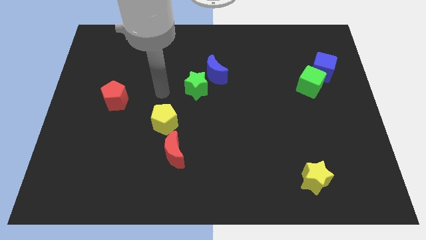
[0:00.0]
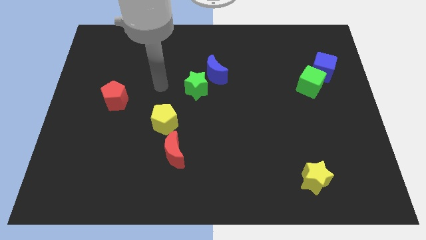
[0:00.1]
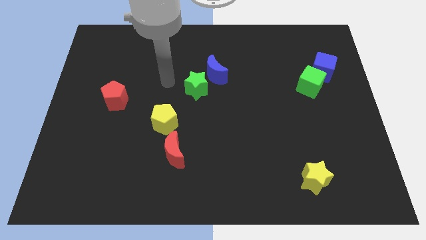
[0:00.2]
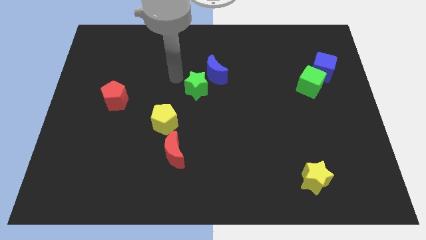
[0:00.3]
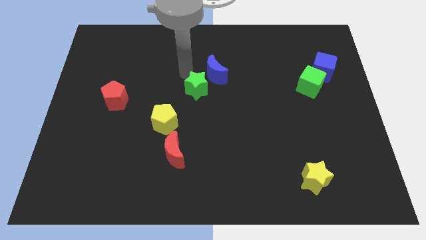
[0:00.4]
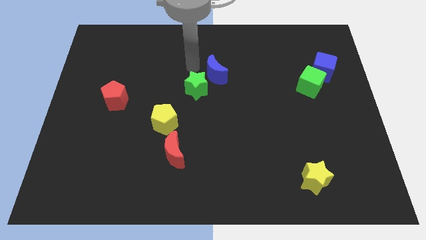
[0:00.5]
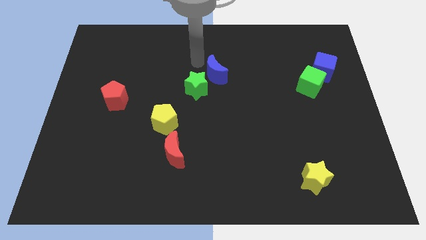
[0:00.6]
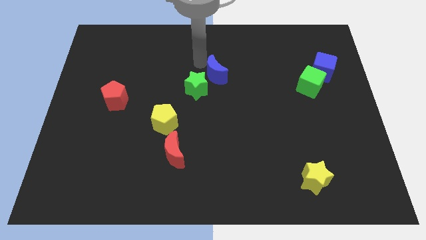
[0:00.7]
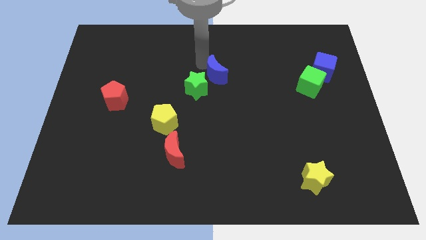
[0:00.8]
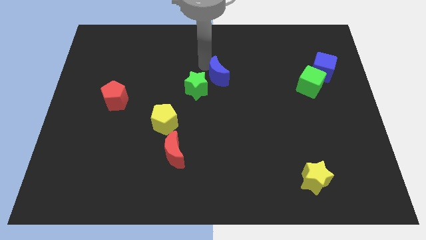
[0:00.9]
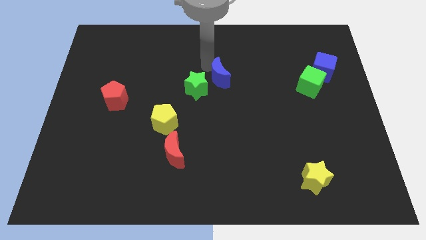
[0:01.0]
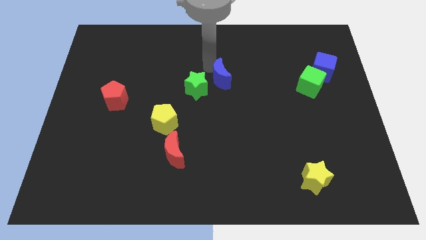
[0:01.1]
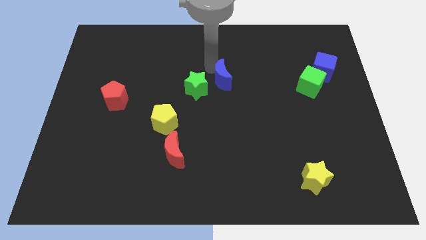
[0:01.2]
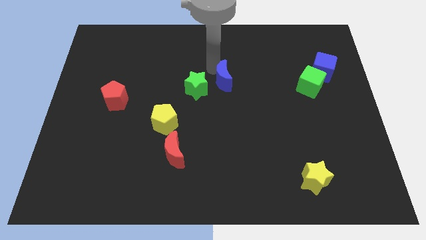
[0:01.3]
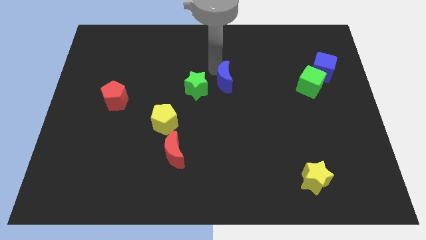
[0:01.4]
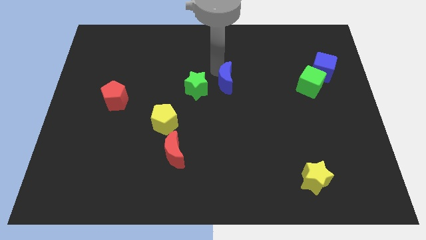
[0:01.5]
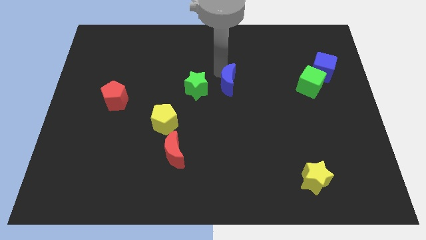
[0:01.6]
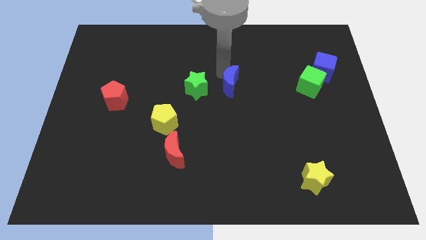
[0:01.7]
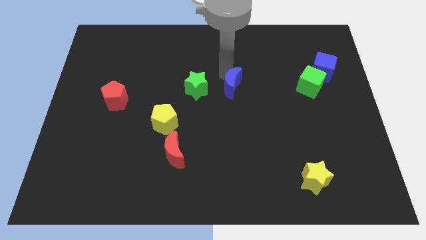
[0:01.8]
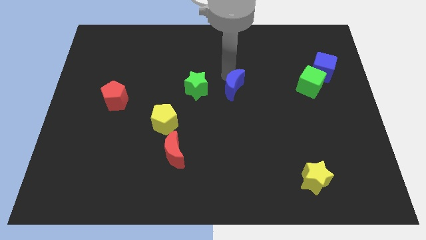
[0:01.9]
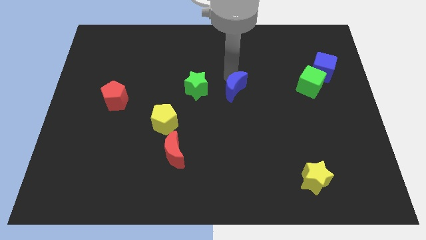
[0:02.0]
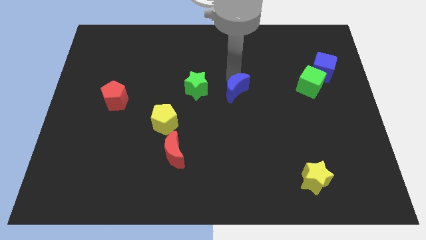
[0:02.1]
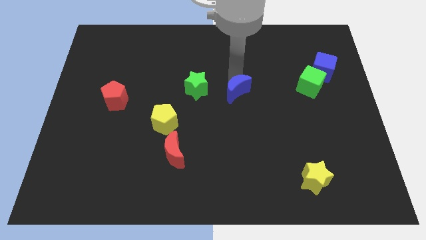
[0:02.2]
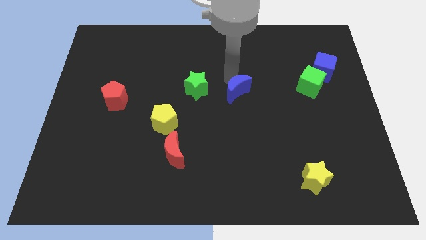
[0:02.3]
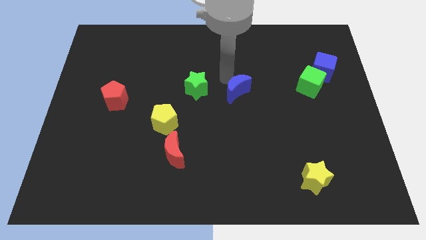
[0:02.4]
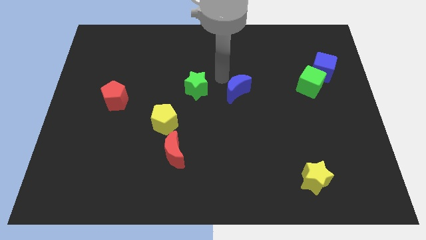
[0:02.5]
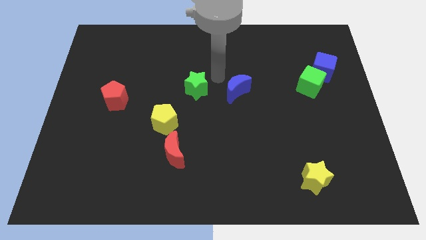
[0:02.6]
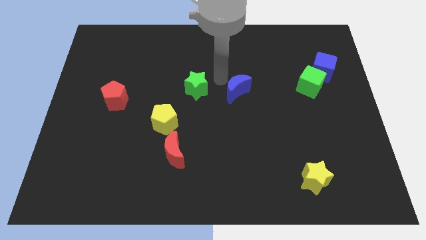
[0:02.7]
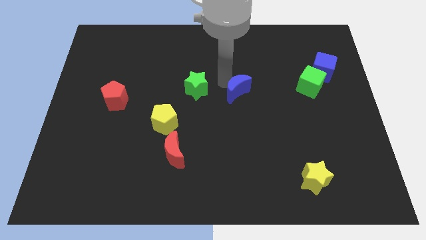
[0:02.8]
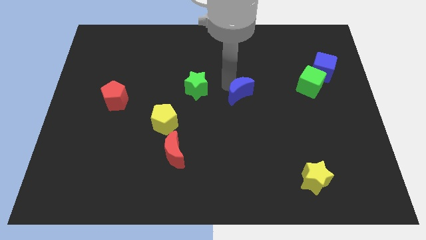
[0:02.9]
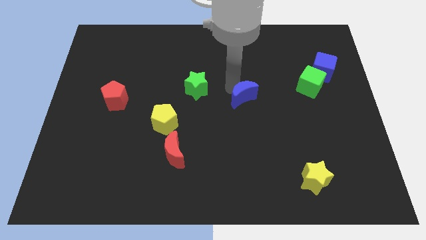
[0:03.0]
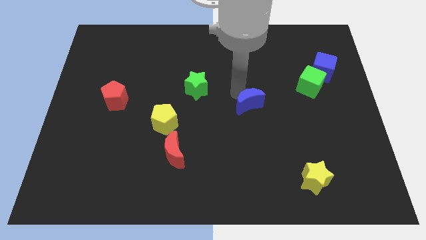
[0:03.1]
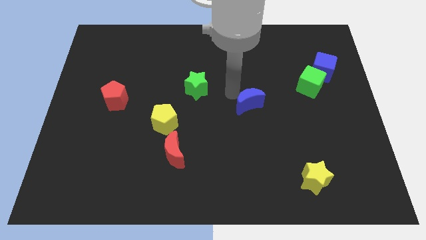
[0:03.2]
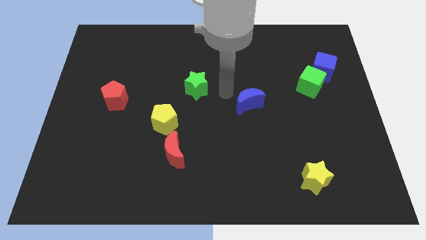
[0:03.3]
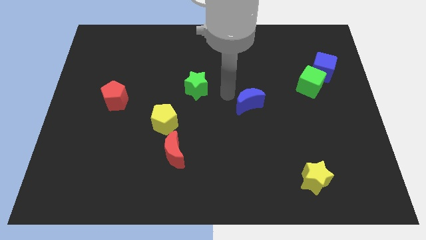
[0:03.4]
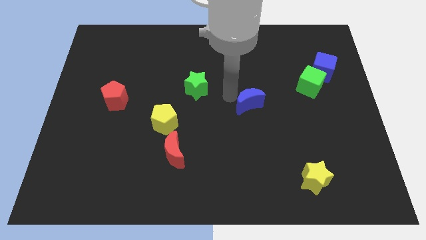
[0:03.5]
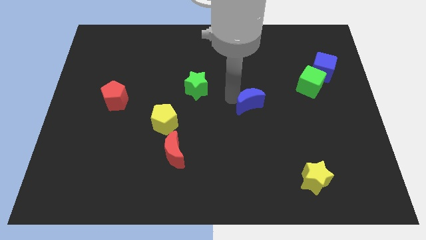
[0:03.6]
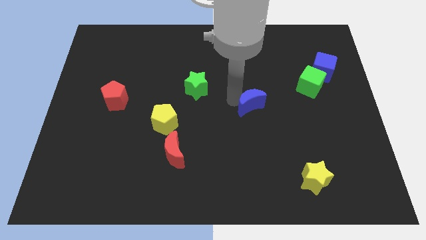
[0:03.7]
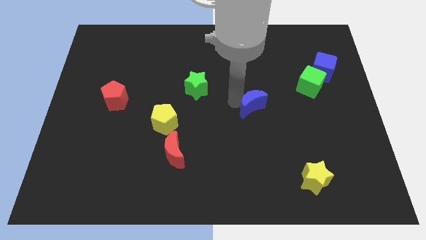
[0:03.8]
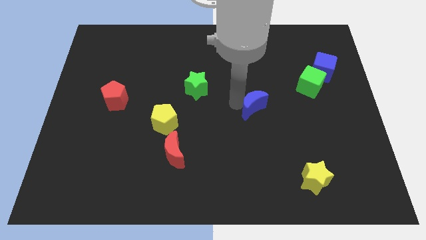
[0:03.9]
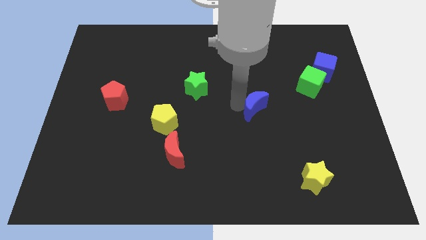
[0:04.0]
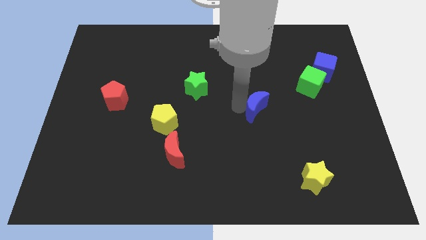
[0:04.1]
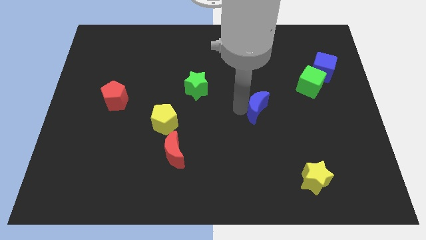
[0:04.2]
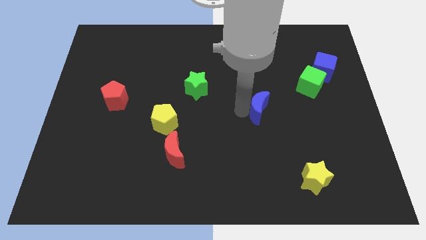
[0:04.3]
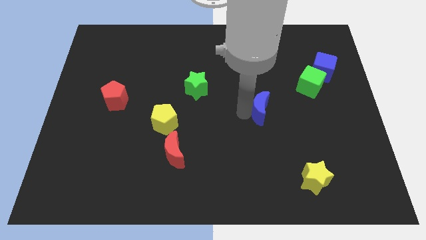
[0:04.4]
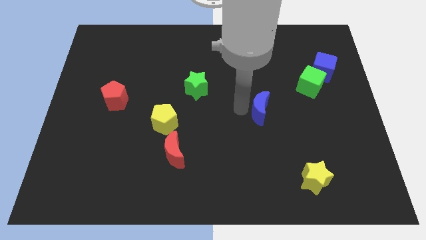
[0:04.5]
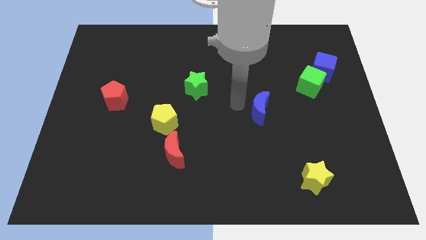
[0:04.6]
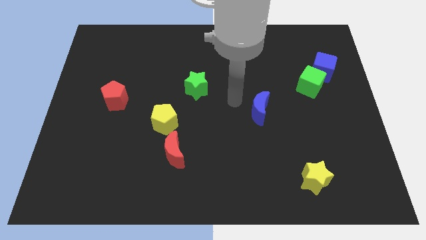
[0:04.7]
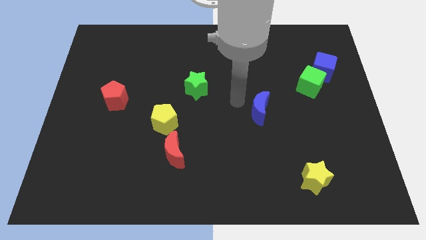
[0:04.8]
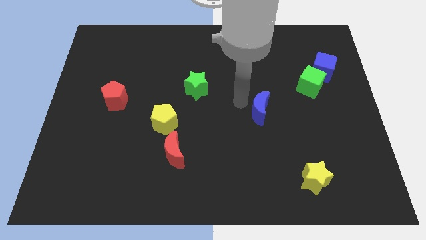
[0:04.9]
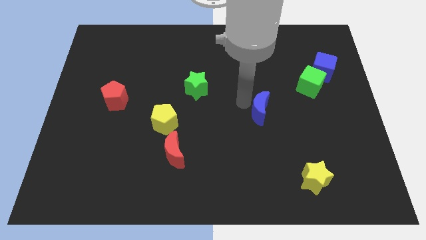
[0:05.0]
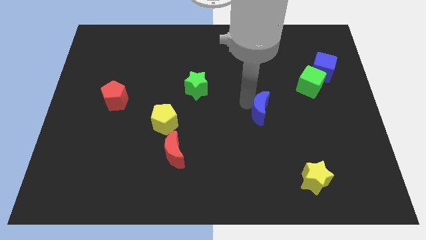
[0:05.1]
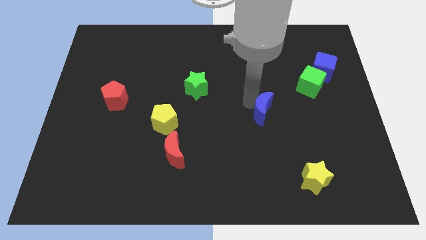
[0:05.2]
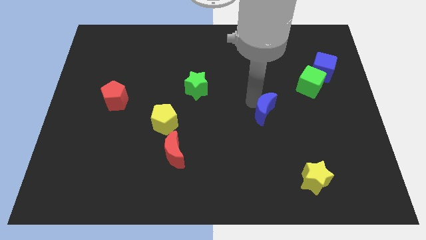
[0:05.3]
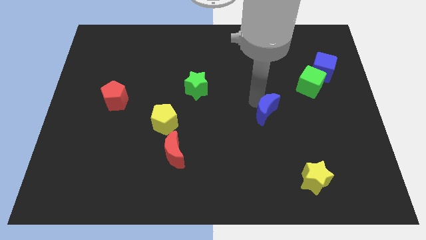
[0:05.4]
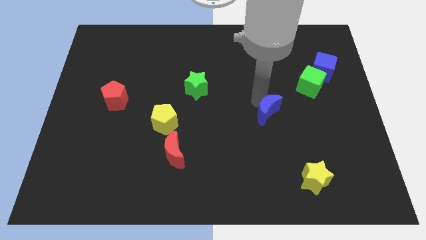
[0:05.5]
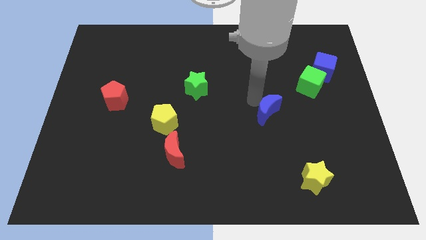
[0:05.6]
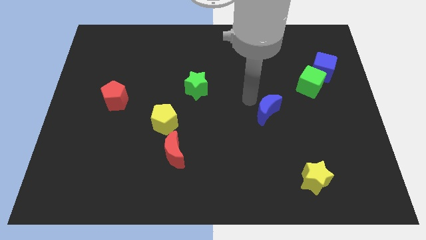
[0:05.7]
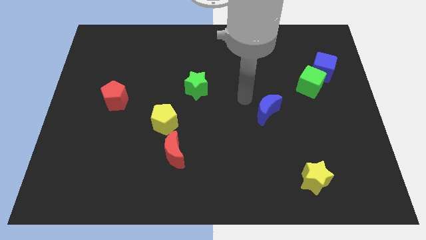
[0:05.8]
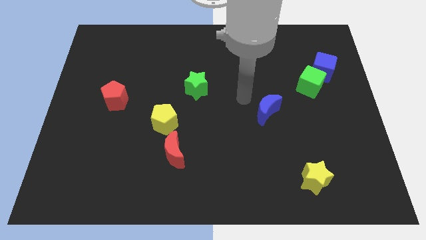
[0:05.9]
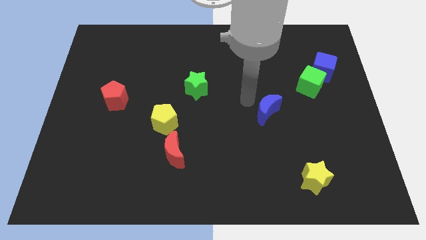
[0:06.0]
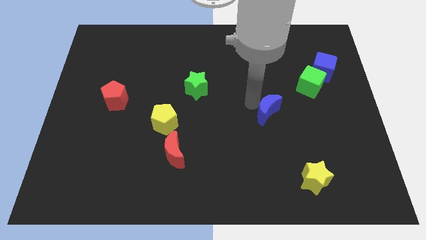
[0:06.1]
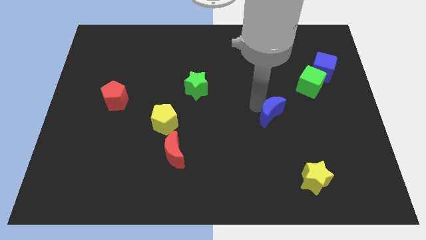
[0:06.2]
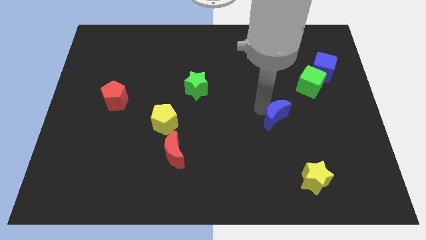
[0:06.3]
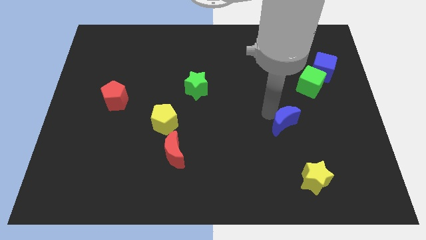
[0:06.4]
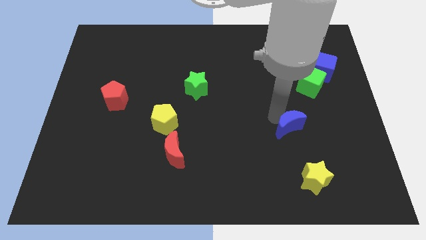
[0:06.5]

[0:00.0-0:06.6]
move the blue moon to the top of the yellow star
